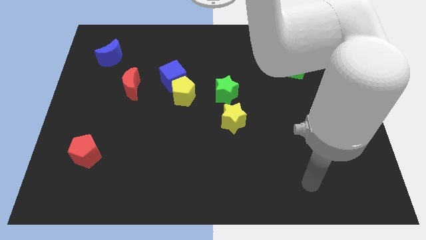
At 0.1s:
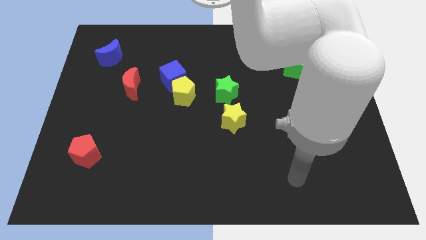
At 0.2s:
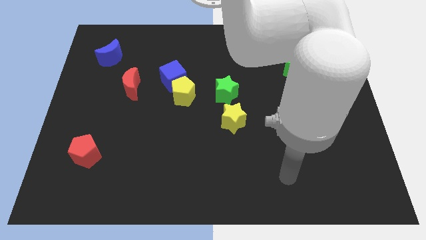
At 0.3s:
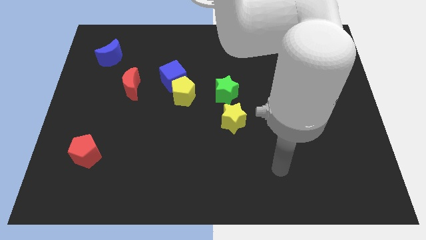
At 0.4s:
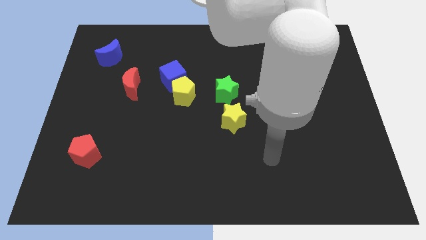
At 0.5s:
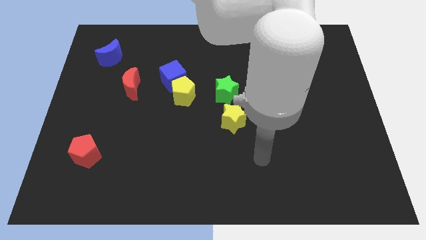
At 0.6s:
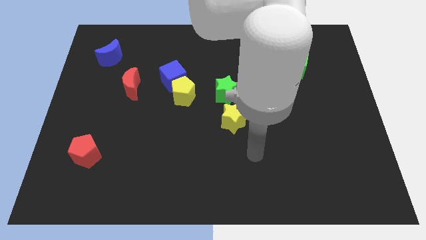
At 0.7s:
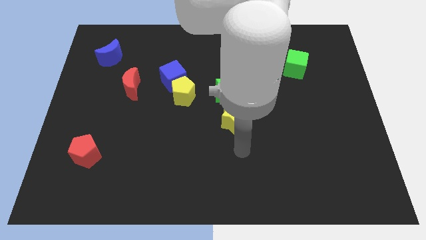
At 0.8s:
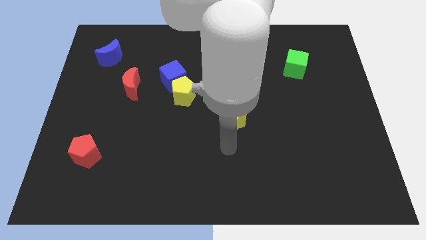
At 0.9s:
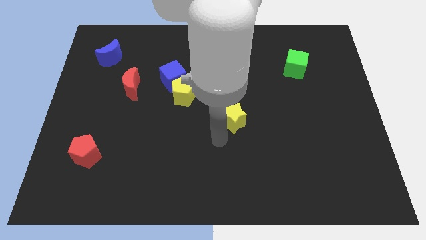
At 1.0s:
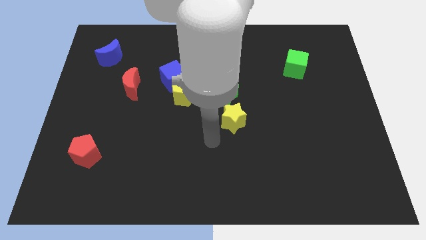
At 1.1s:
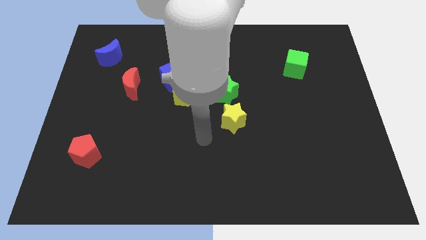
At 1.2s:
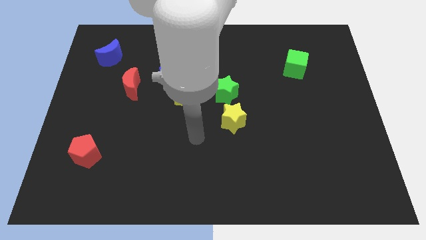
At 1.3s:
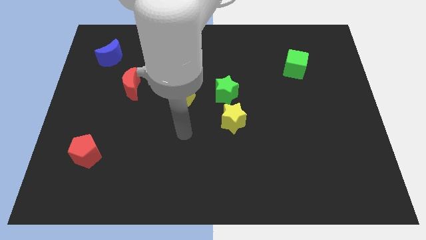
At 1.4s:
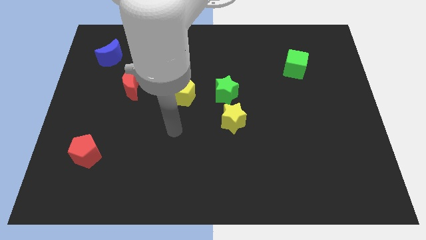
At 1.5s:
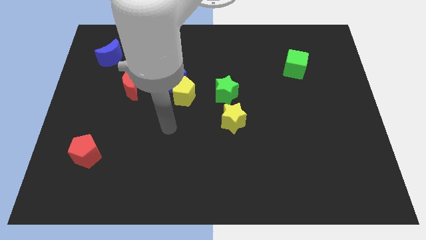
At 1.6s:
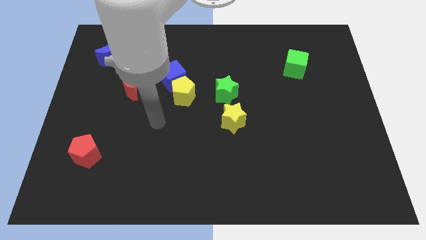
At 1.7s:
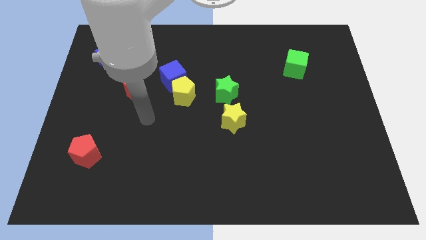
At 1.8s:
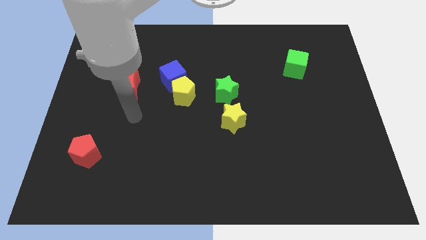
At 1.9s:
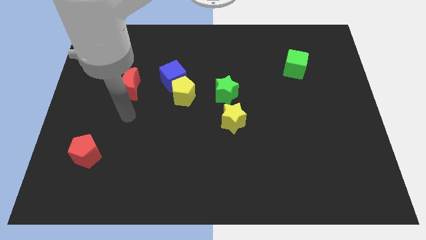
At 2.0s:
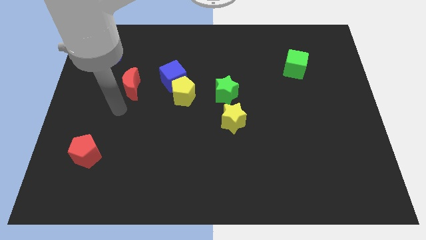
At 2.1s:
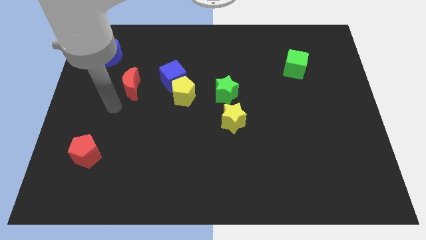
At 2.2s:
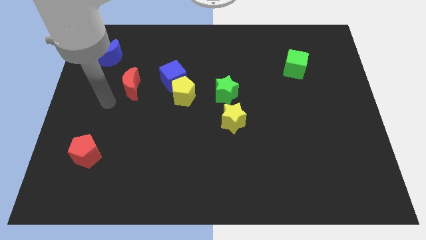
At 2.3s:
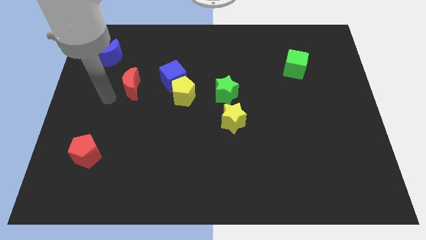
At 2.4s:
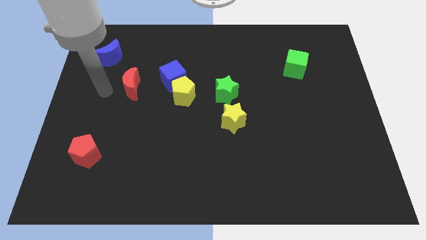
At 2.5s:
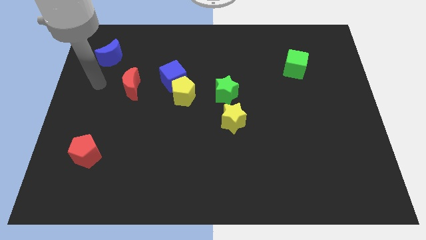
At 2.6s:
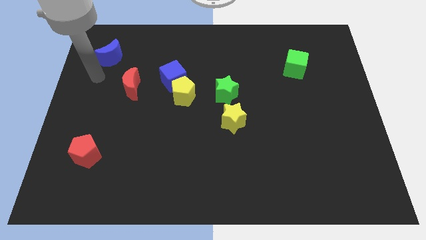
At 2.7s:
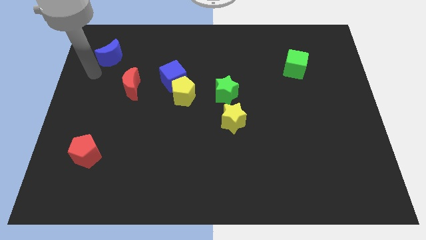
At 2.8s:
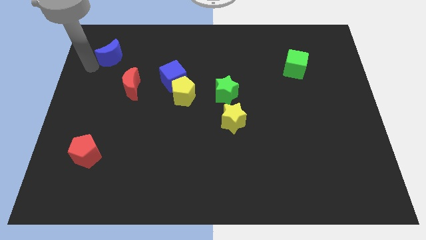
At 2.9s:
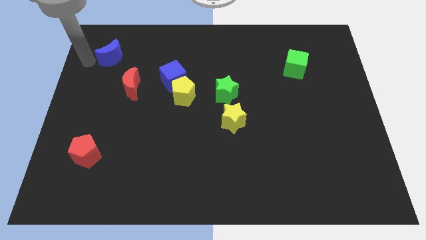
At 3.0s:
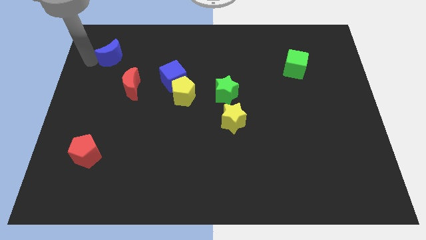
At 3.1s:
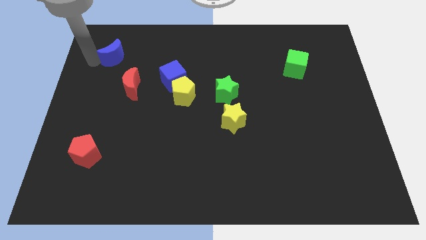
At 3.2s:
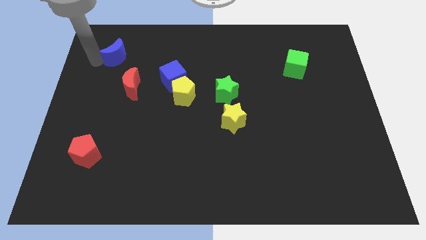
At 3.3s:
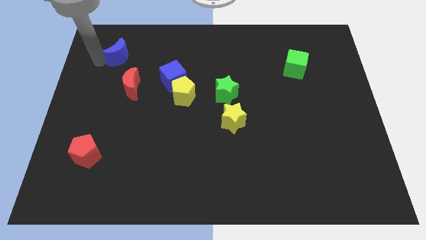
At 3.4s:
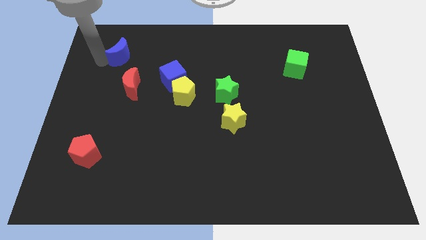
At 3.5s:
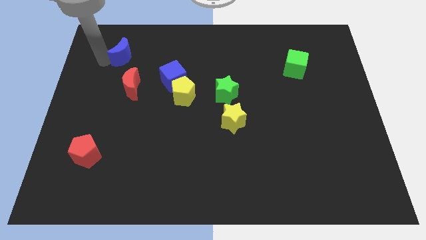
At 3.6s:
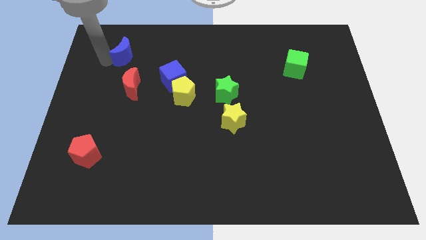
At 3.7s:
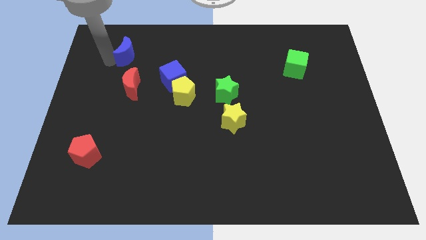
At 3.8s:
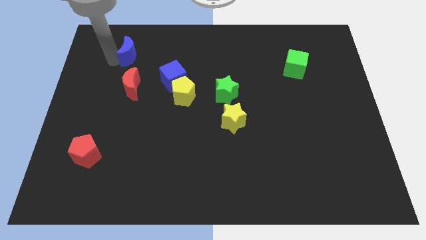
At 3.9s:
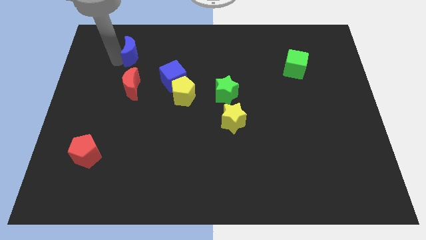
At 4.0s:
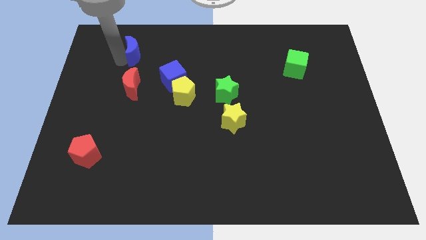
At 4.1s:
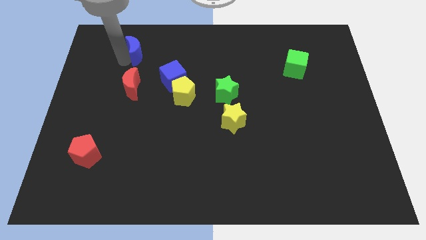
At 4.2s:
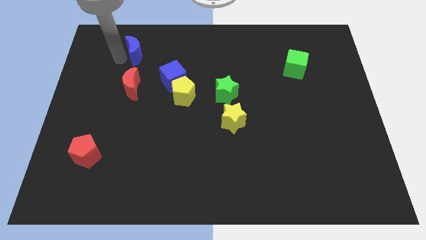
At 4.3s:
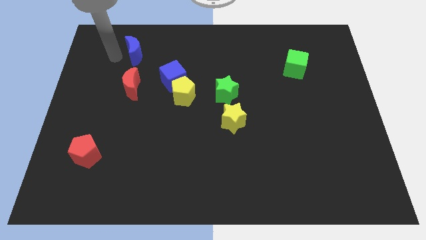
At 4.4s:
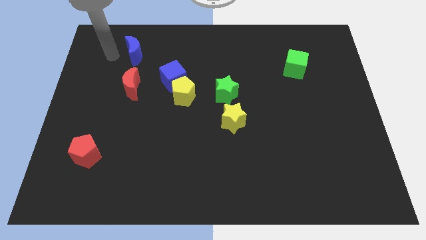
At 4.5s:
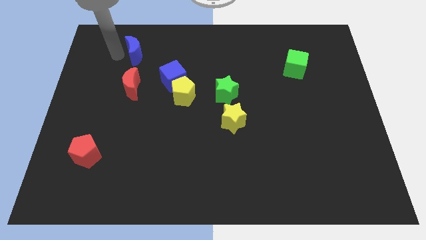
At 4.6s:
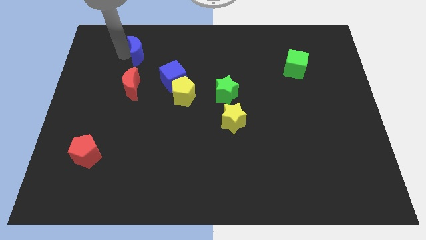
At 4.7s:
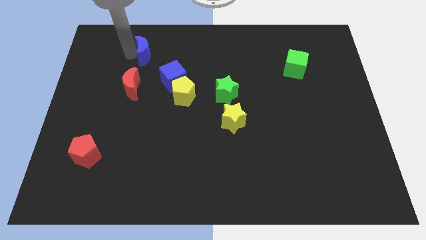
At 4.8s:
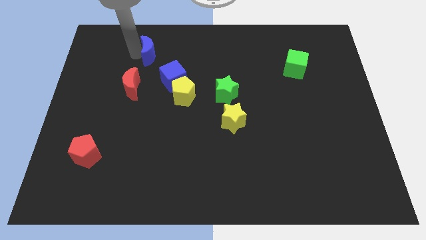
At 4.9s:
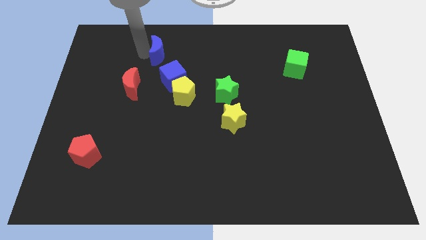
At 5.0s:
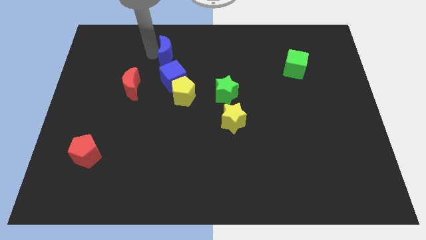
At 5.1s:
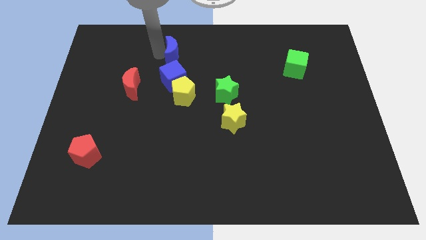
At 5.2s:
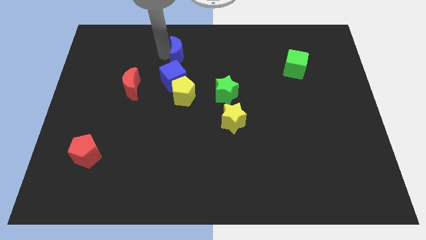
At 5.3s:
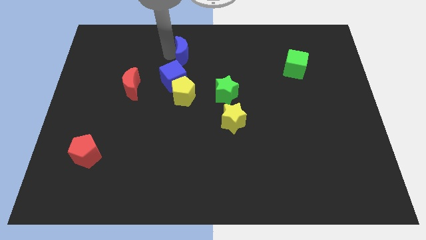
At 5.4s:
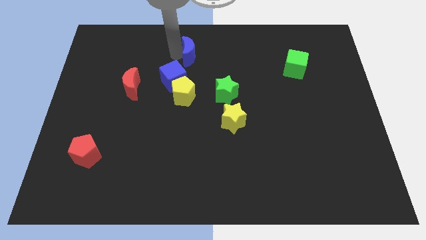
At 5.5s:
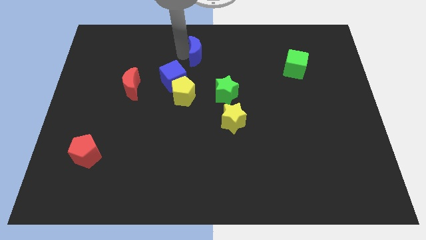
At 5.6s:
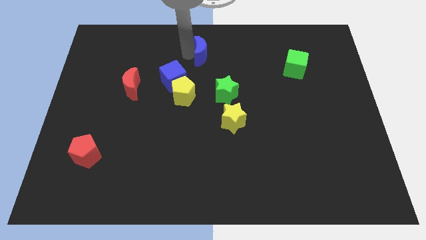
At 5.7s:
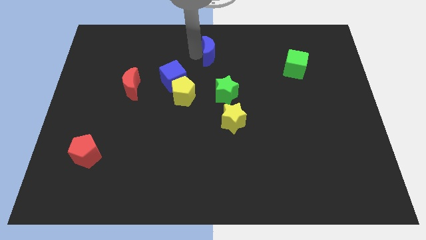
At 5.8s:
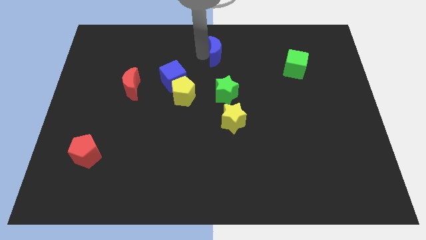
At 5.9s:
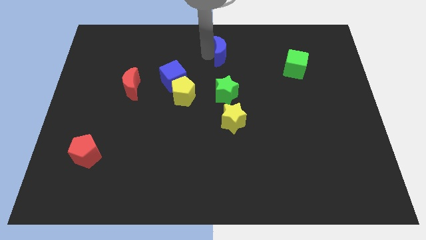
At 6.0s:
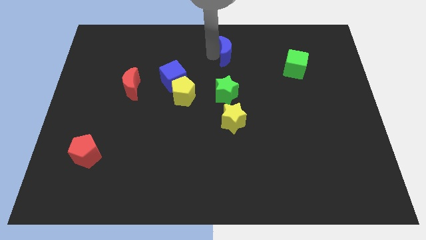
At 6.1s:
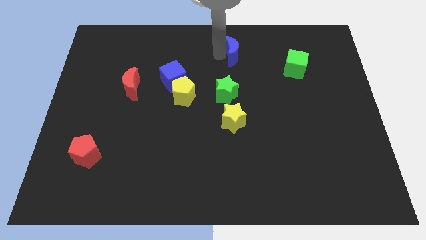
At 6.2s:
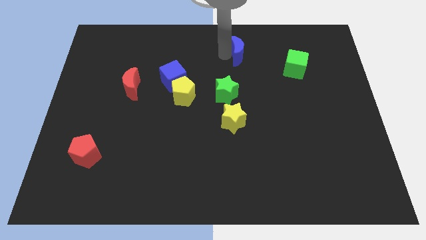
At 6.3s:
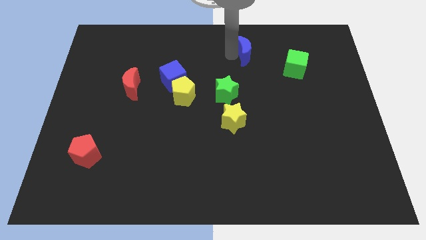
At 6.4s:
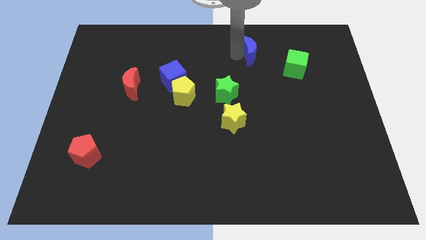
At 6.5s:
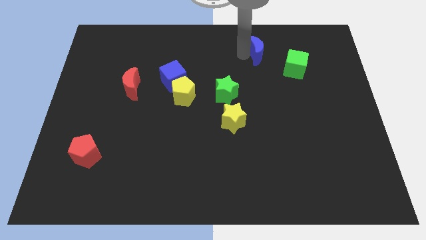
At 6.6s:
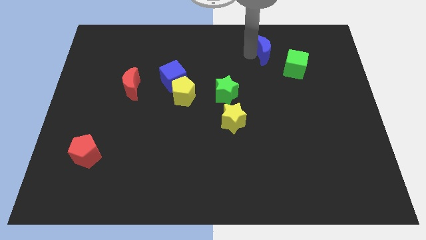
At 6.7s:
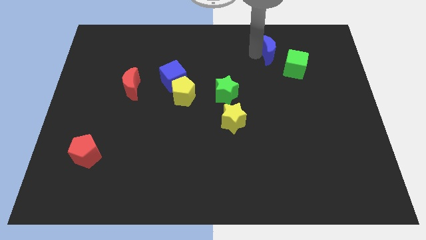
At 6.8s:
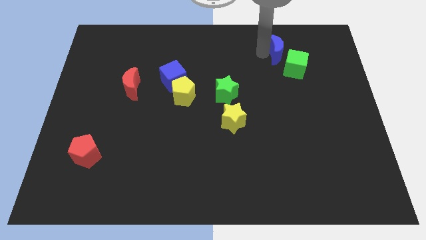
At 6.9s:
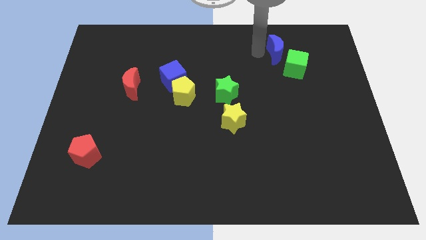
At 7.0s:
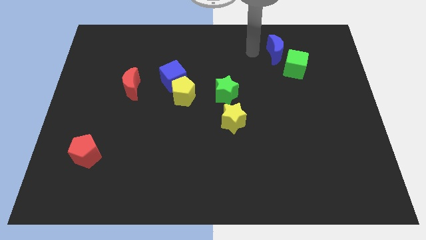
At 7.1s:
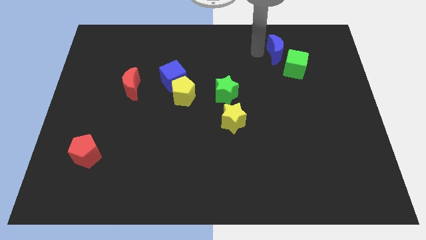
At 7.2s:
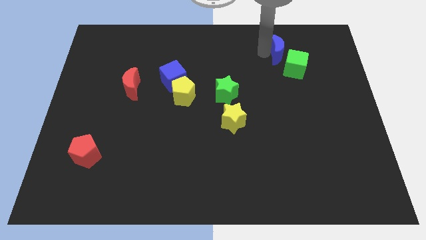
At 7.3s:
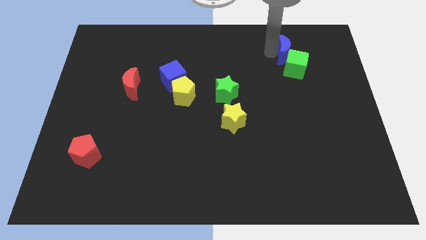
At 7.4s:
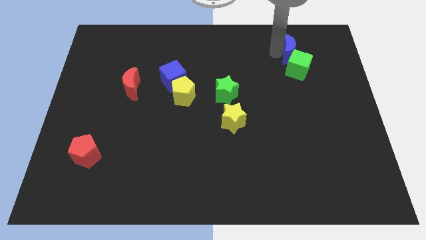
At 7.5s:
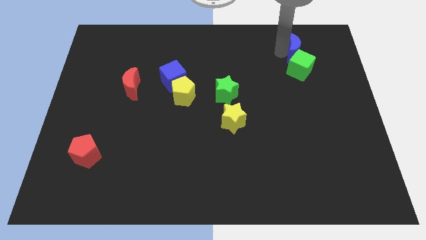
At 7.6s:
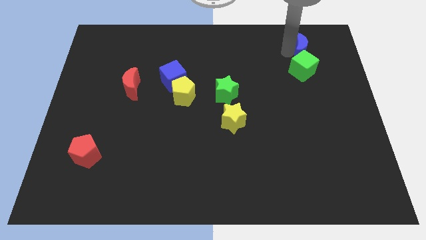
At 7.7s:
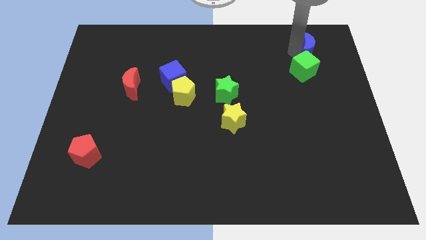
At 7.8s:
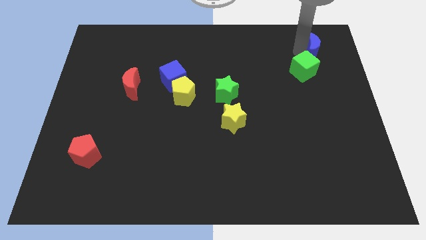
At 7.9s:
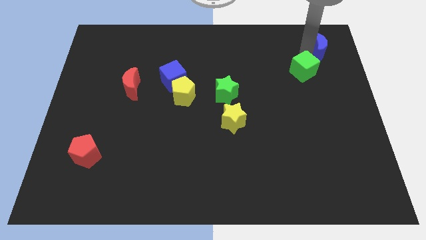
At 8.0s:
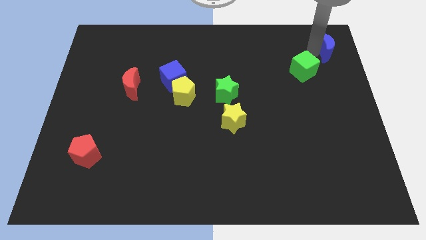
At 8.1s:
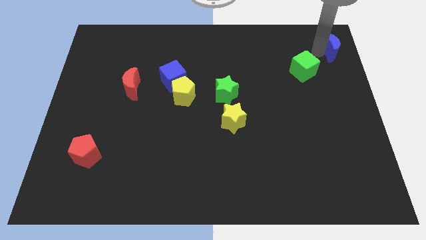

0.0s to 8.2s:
put the blue moon to the top right
